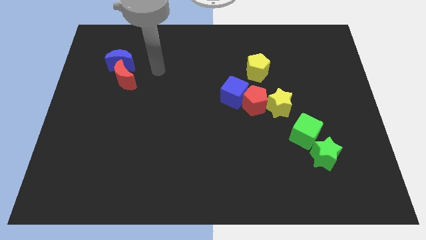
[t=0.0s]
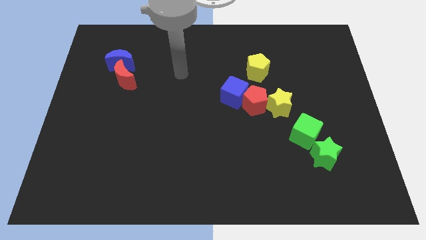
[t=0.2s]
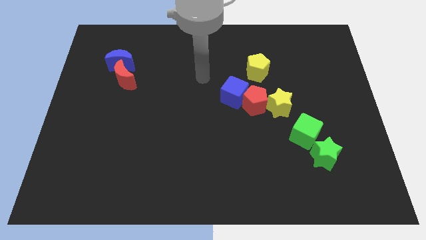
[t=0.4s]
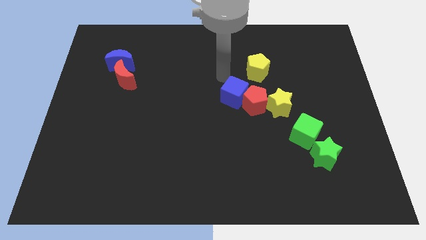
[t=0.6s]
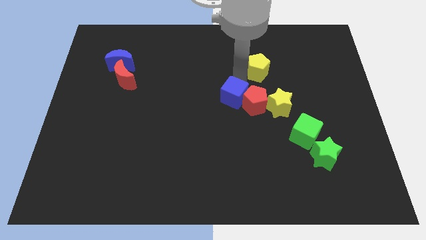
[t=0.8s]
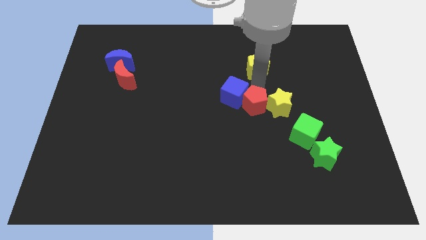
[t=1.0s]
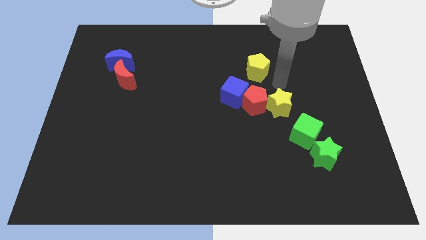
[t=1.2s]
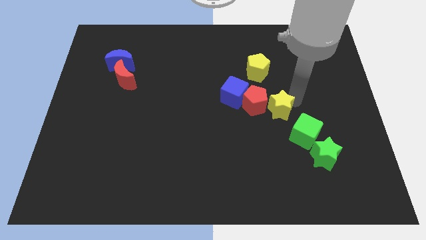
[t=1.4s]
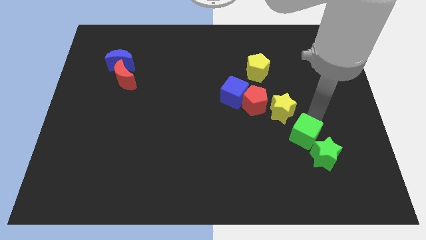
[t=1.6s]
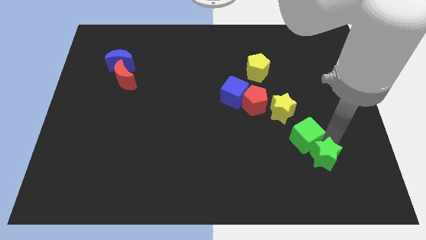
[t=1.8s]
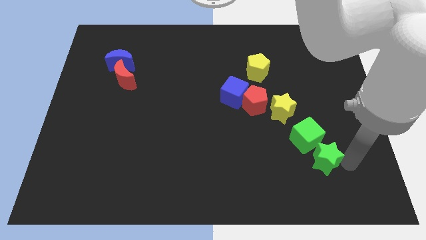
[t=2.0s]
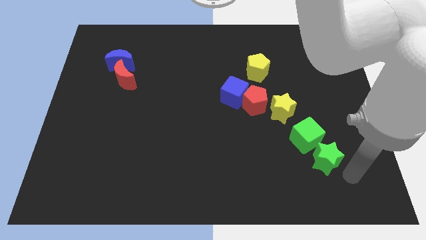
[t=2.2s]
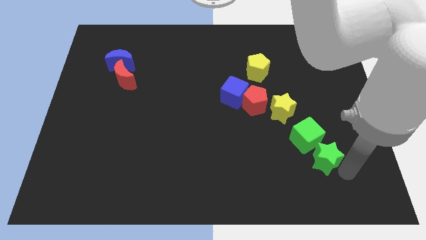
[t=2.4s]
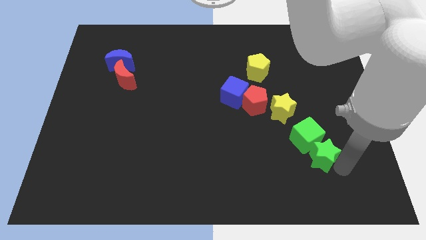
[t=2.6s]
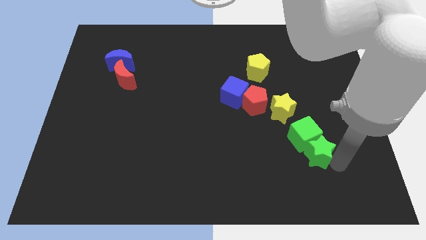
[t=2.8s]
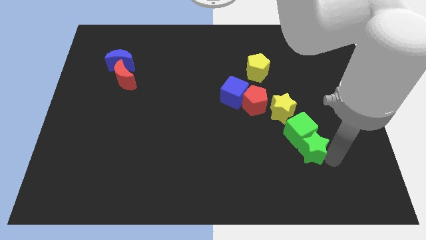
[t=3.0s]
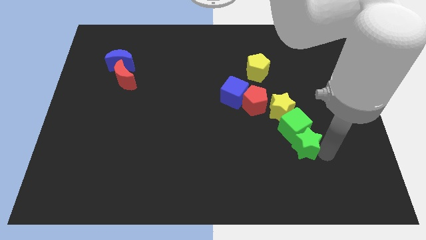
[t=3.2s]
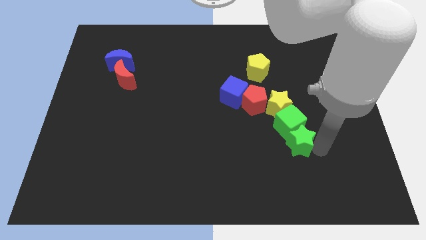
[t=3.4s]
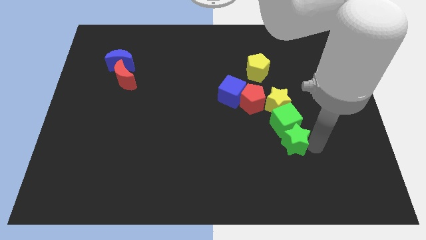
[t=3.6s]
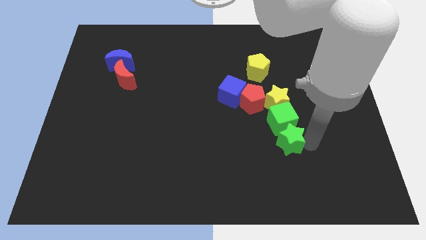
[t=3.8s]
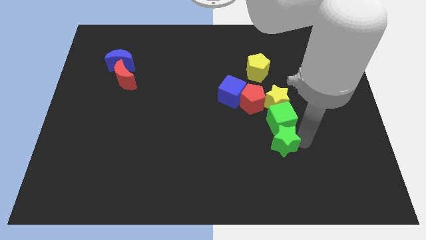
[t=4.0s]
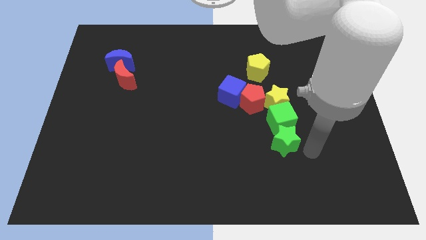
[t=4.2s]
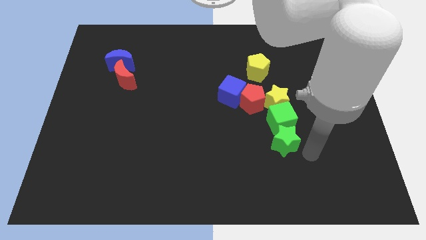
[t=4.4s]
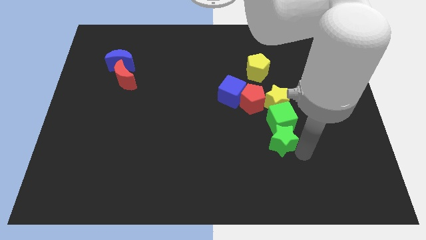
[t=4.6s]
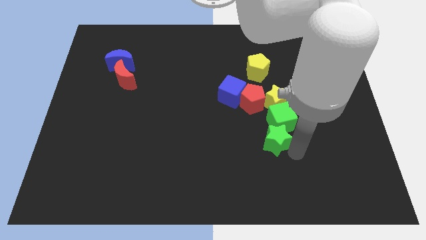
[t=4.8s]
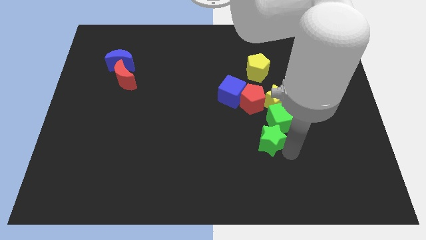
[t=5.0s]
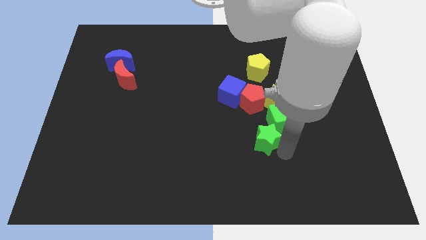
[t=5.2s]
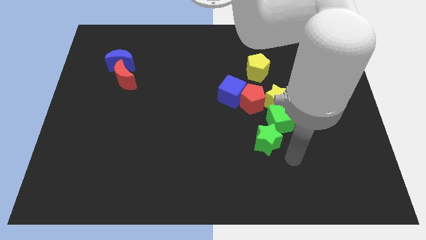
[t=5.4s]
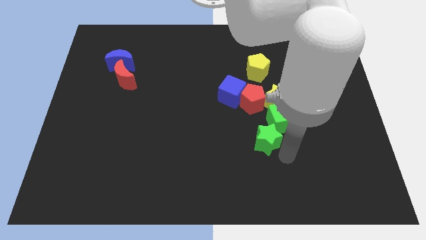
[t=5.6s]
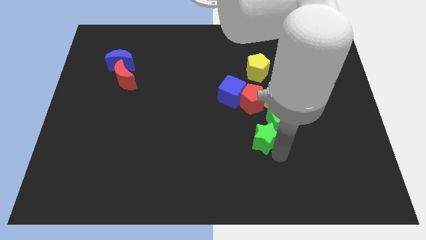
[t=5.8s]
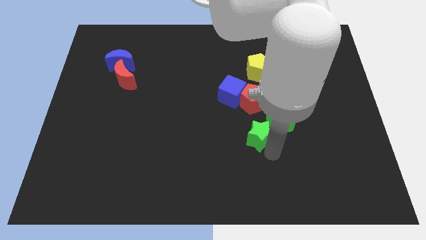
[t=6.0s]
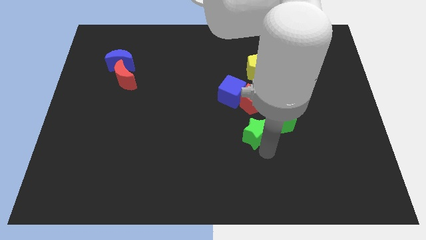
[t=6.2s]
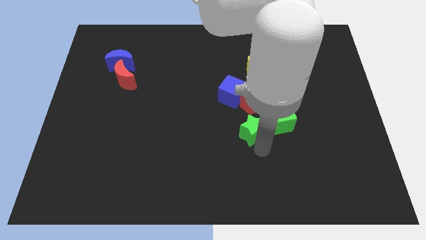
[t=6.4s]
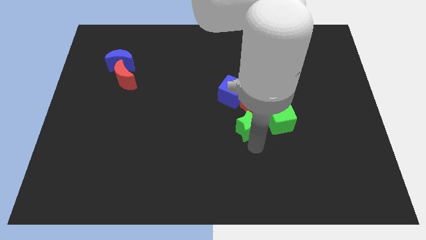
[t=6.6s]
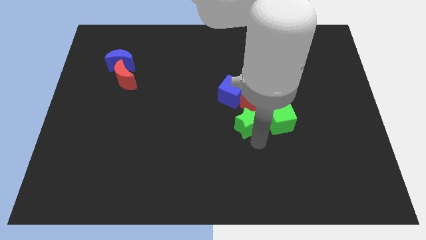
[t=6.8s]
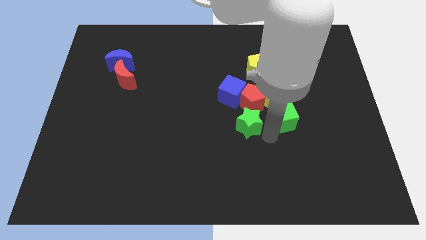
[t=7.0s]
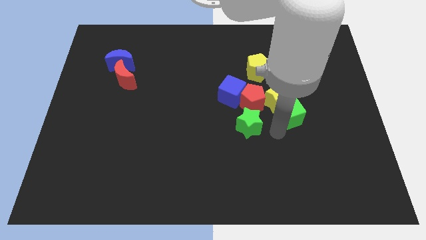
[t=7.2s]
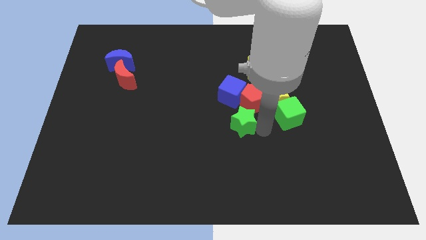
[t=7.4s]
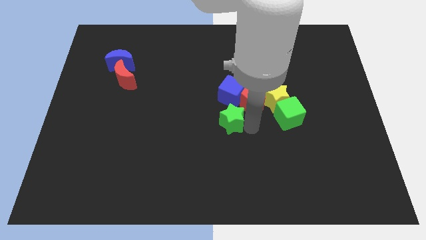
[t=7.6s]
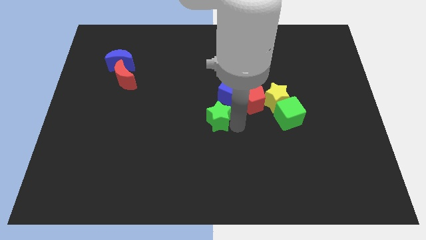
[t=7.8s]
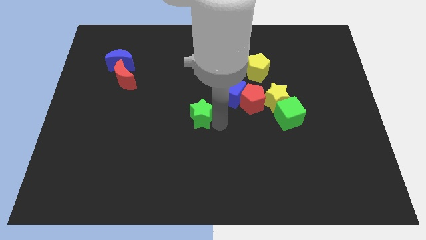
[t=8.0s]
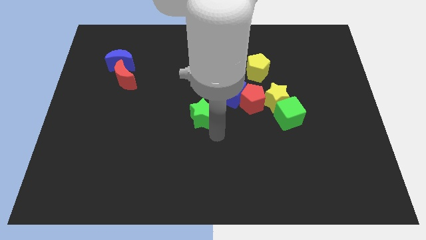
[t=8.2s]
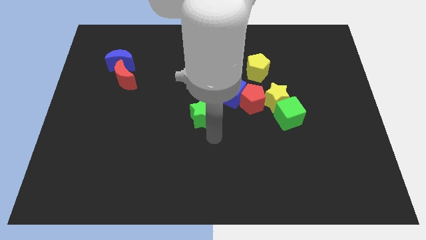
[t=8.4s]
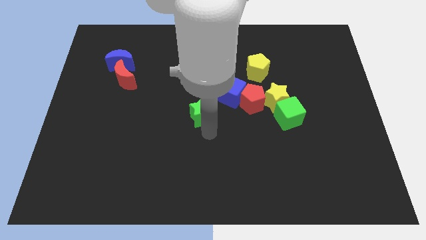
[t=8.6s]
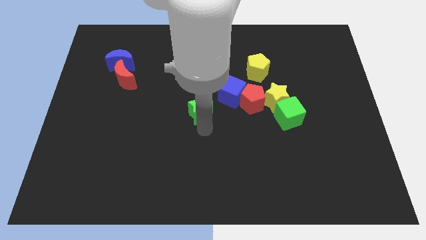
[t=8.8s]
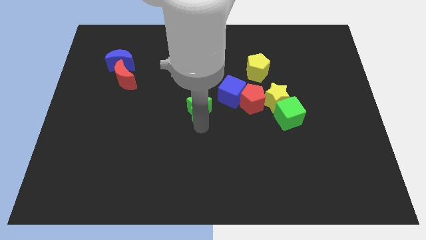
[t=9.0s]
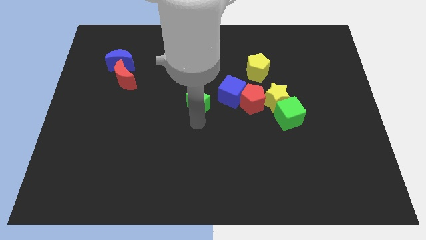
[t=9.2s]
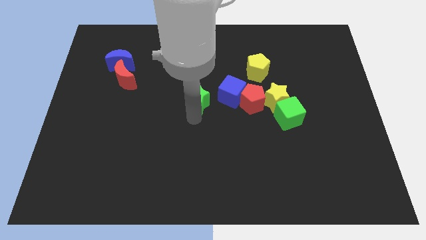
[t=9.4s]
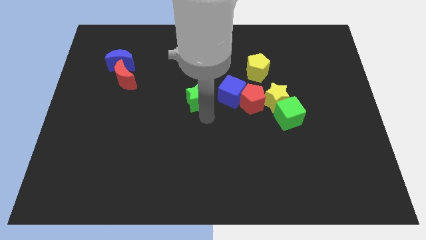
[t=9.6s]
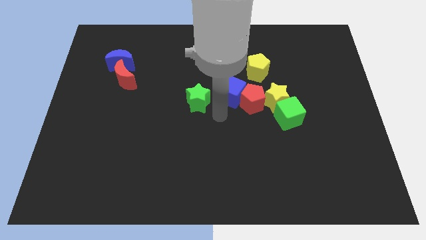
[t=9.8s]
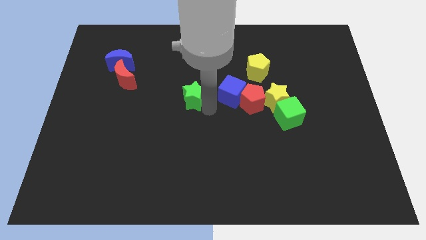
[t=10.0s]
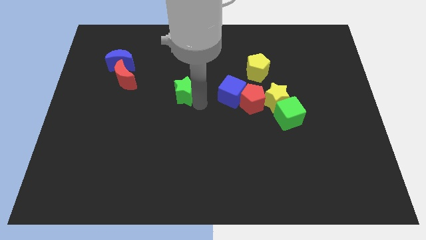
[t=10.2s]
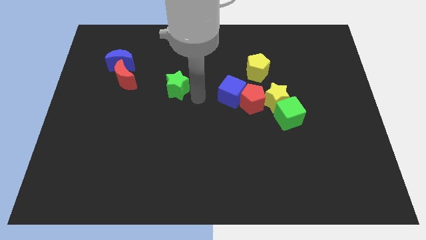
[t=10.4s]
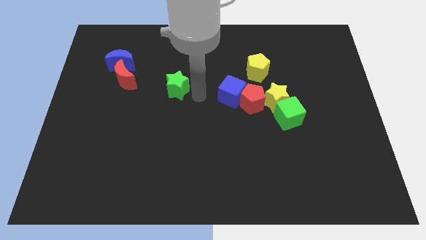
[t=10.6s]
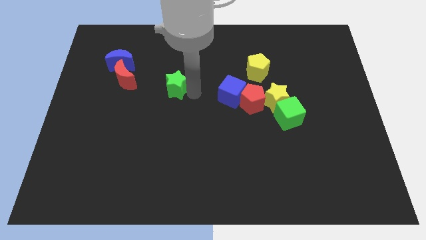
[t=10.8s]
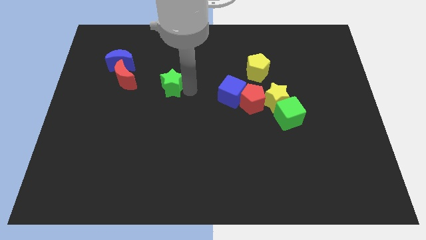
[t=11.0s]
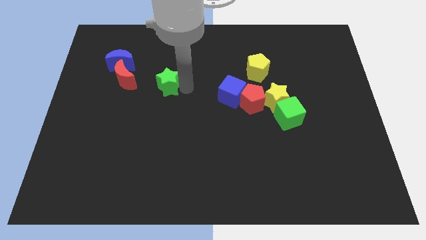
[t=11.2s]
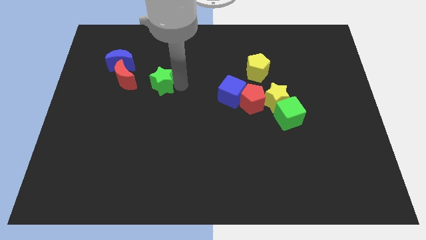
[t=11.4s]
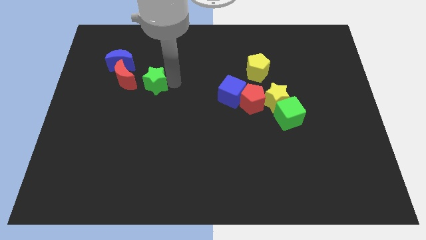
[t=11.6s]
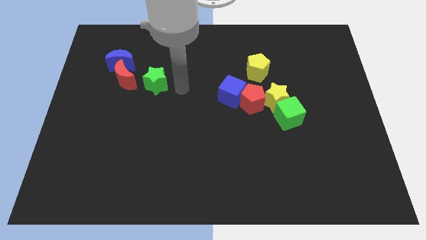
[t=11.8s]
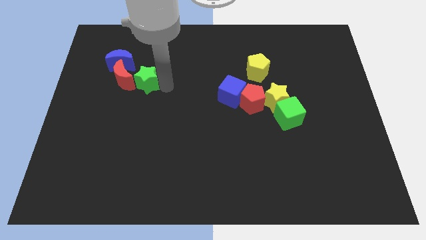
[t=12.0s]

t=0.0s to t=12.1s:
push the green star to the red moon
